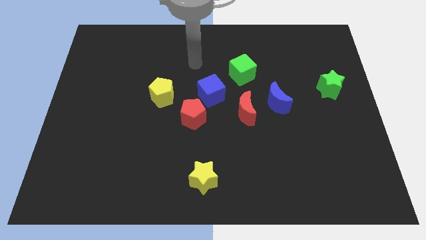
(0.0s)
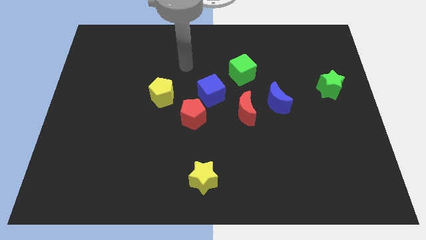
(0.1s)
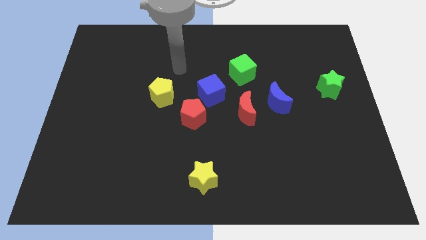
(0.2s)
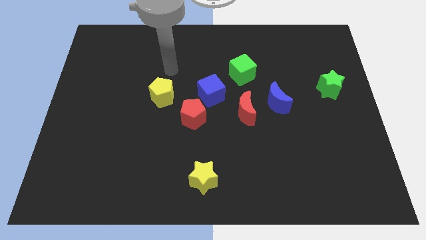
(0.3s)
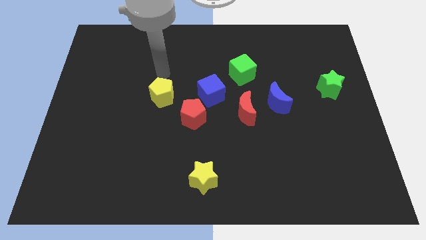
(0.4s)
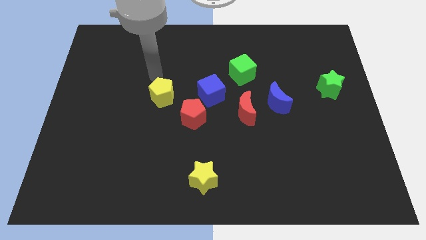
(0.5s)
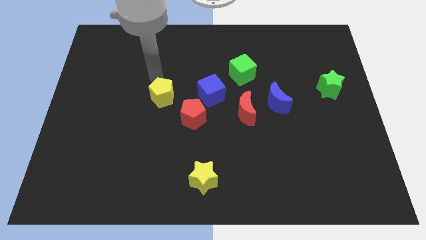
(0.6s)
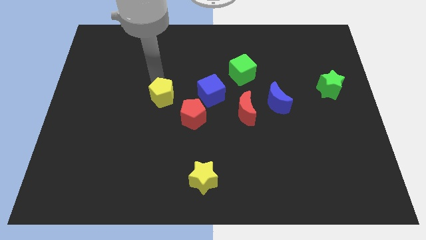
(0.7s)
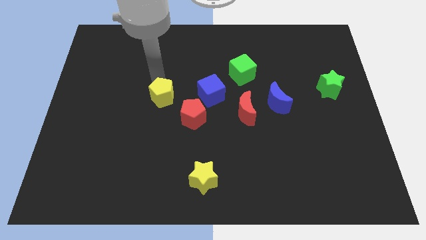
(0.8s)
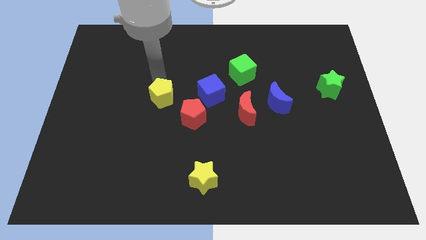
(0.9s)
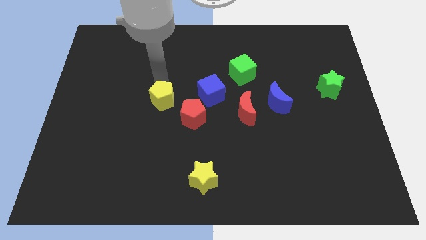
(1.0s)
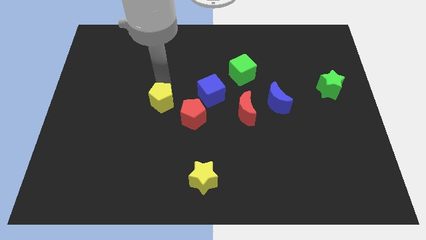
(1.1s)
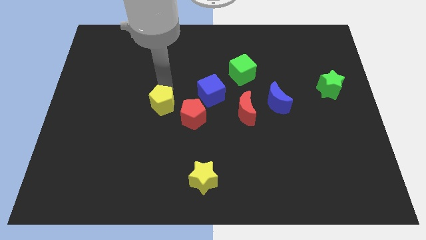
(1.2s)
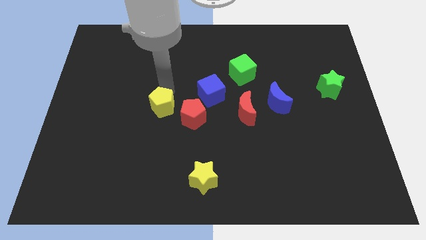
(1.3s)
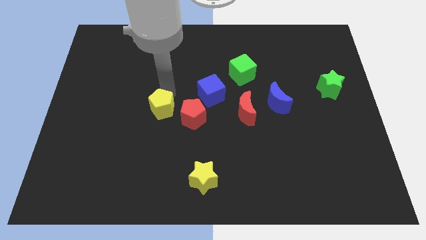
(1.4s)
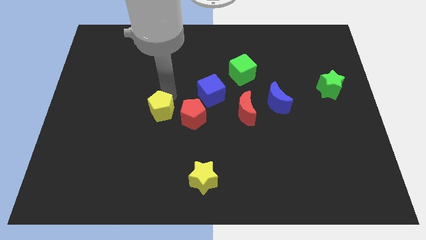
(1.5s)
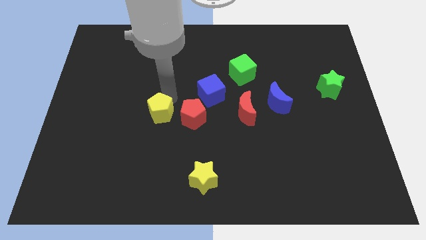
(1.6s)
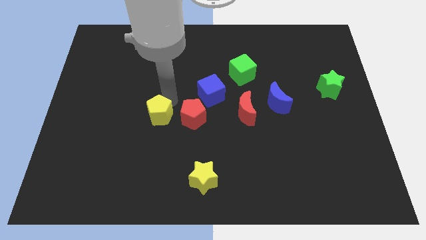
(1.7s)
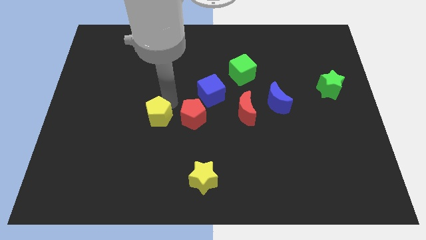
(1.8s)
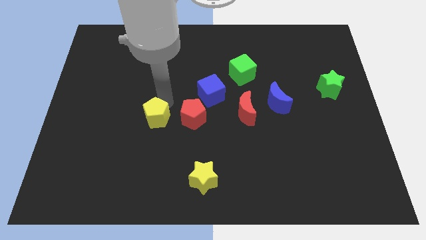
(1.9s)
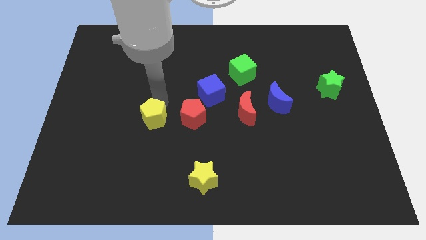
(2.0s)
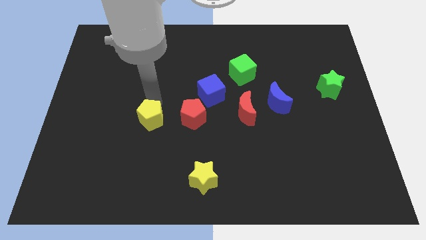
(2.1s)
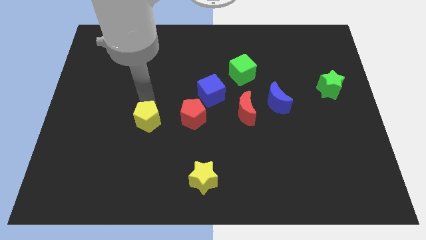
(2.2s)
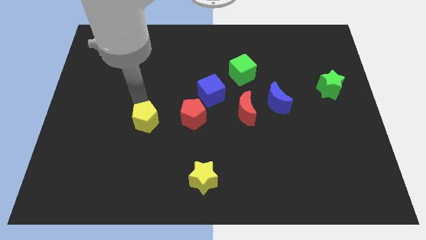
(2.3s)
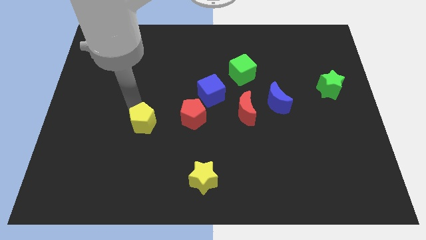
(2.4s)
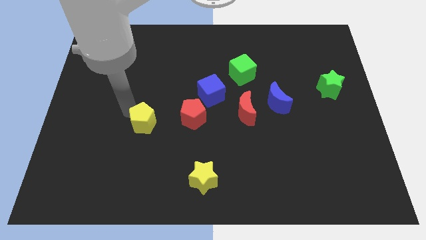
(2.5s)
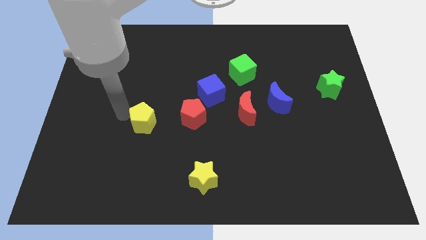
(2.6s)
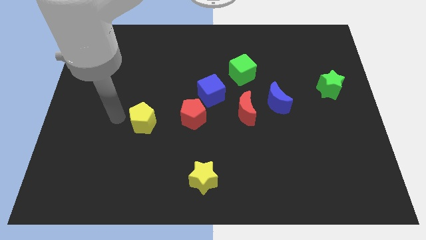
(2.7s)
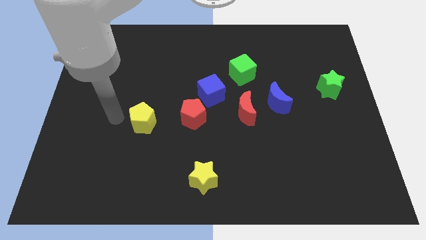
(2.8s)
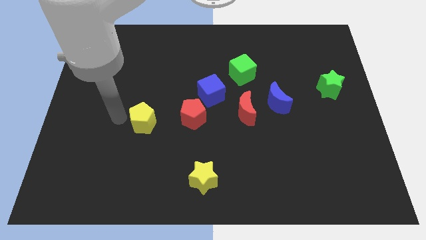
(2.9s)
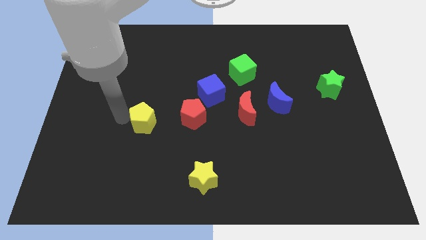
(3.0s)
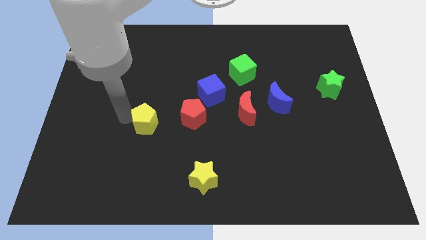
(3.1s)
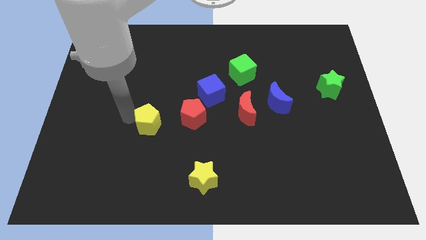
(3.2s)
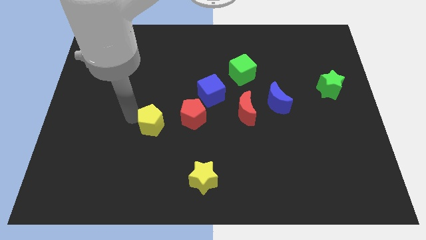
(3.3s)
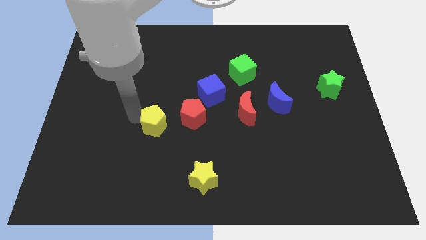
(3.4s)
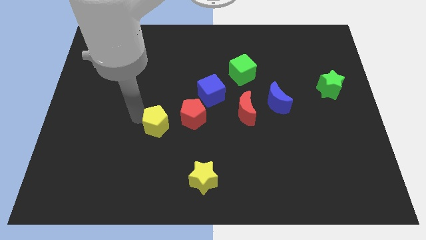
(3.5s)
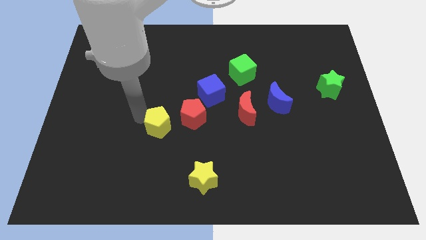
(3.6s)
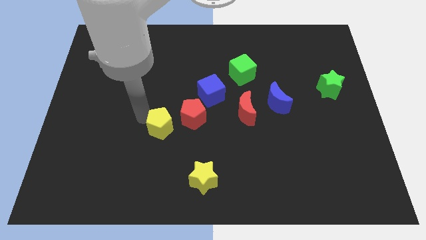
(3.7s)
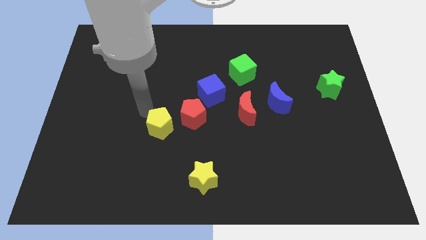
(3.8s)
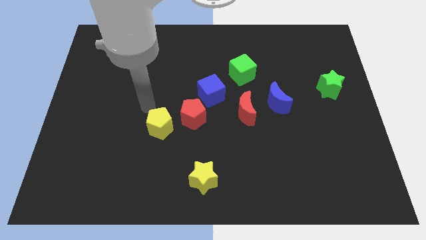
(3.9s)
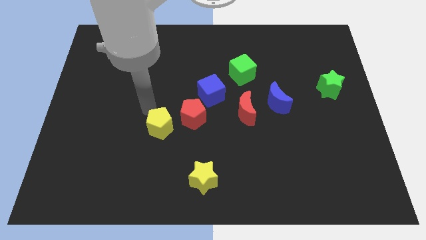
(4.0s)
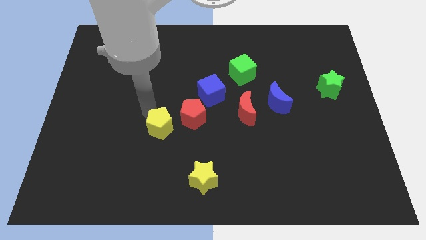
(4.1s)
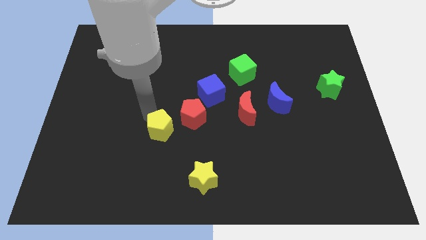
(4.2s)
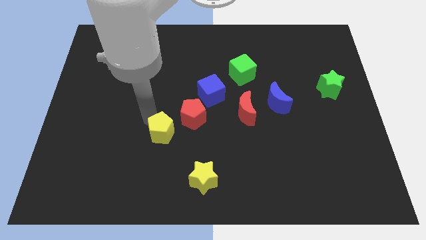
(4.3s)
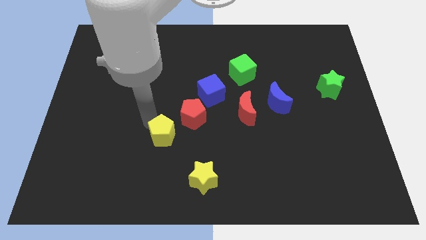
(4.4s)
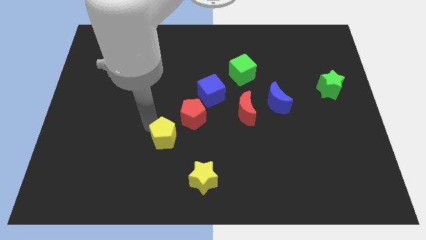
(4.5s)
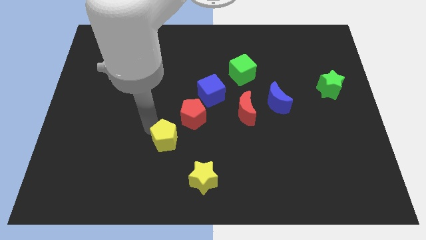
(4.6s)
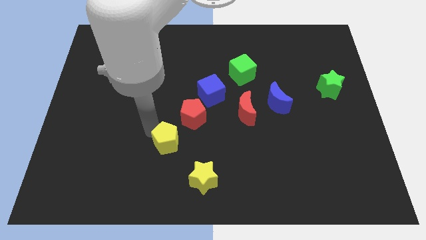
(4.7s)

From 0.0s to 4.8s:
push the yellow pentagon to the top left of the yellow star

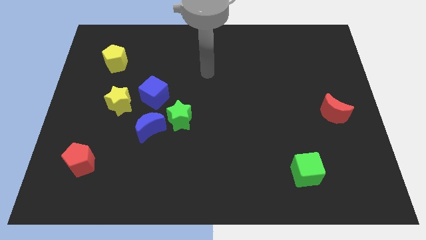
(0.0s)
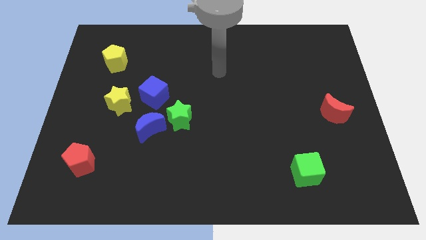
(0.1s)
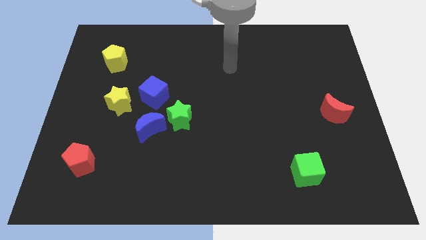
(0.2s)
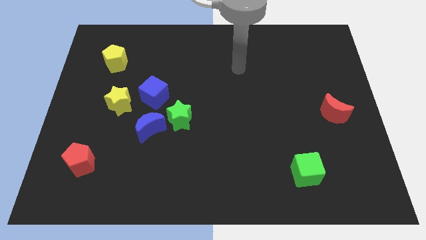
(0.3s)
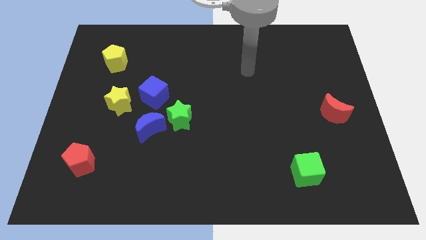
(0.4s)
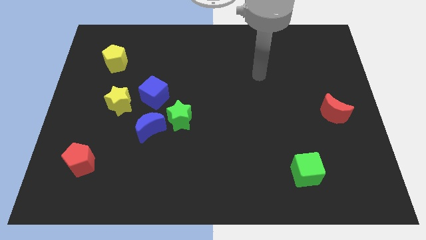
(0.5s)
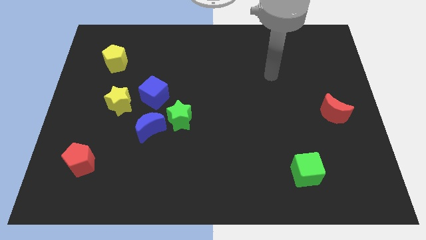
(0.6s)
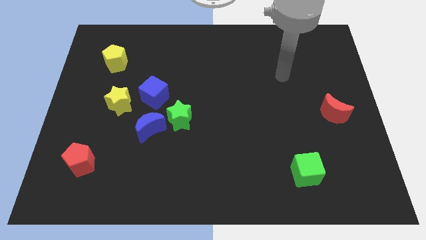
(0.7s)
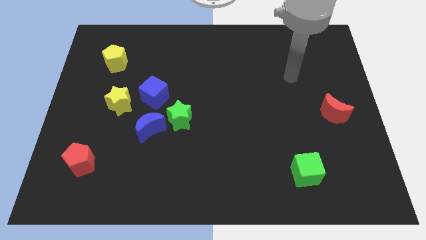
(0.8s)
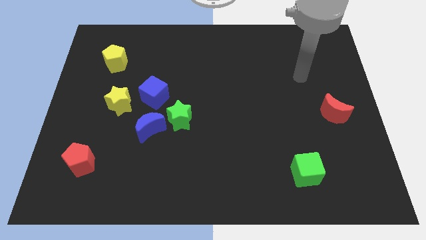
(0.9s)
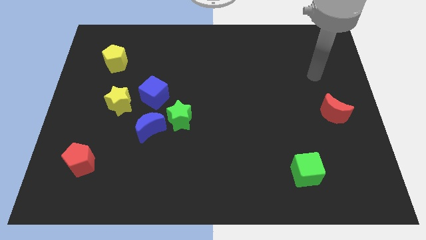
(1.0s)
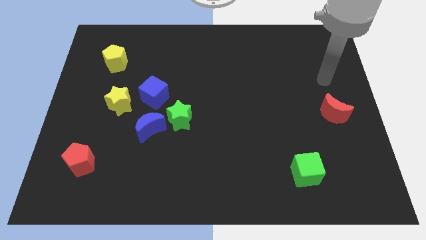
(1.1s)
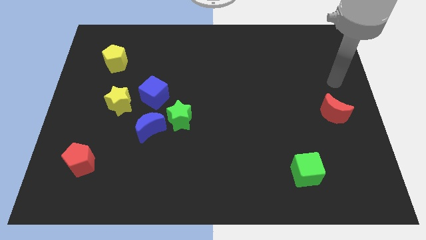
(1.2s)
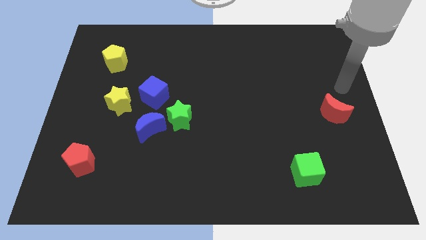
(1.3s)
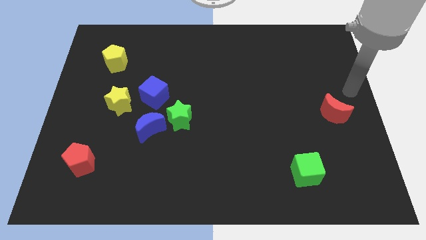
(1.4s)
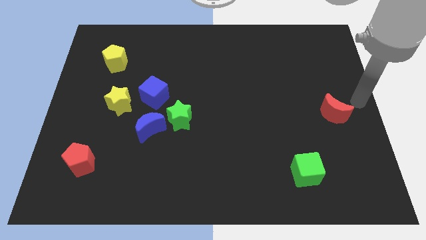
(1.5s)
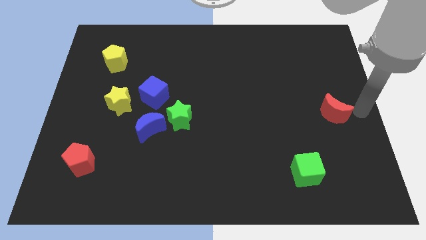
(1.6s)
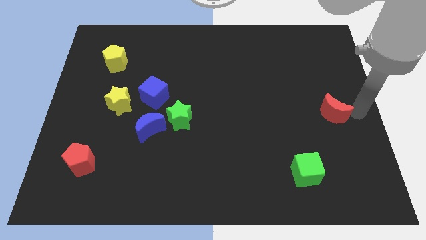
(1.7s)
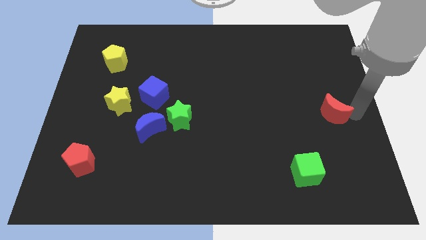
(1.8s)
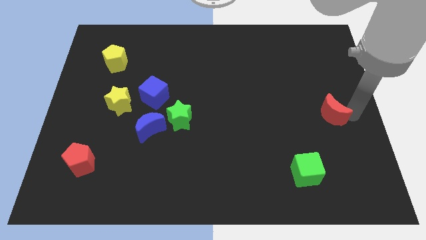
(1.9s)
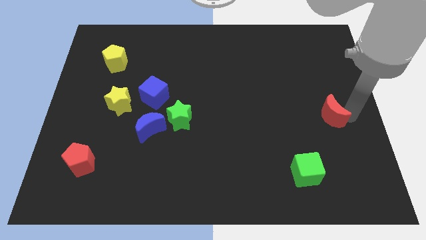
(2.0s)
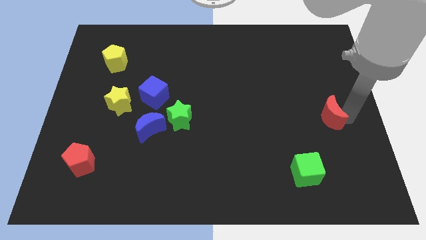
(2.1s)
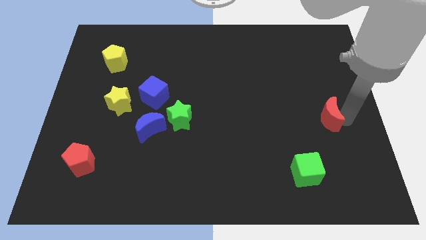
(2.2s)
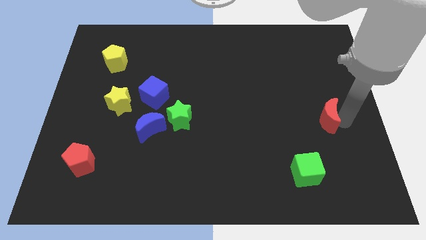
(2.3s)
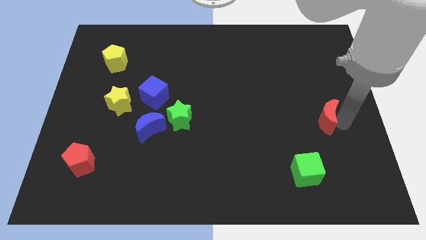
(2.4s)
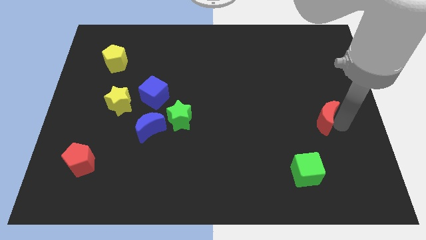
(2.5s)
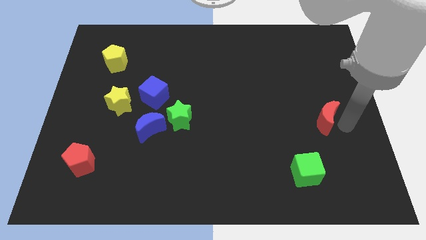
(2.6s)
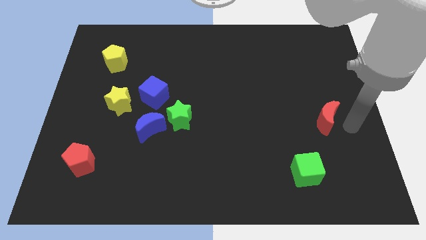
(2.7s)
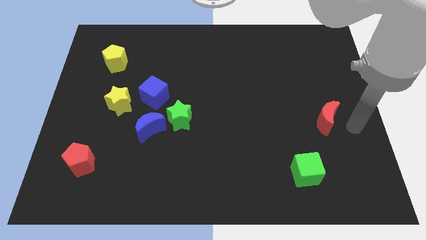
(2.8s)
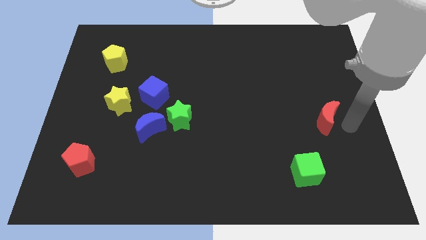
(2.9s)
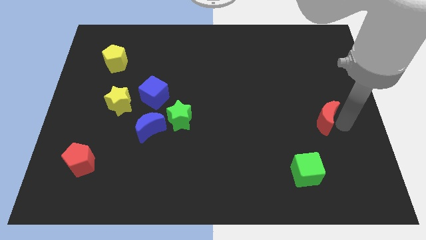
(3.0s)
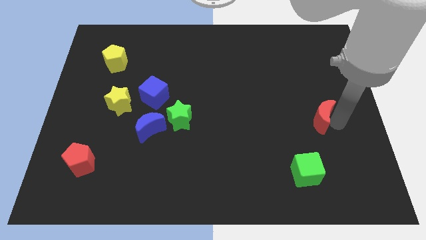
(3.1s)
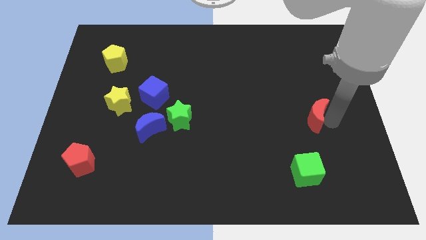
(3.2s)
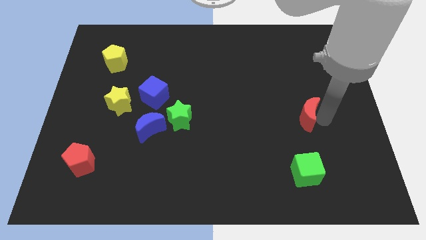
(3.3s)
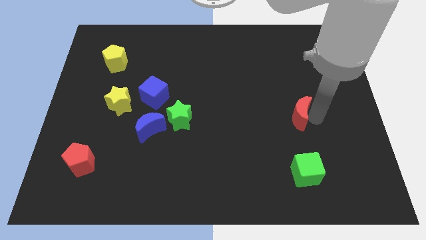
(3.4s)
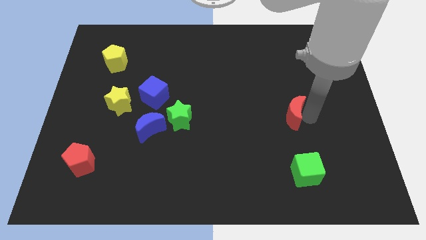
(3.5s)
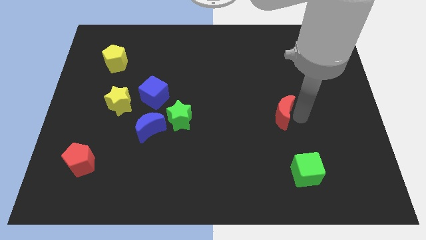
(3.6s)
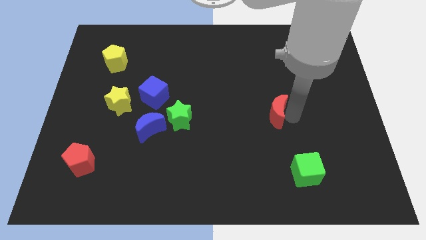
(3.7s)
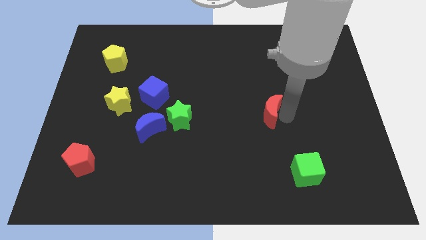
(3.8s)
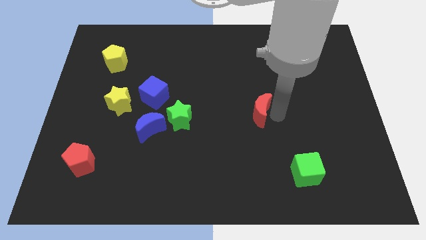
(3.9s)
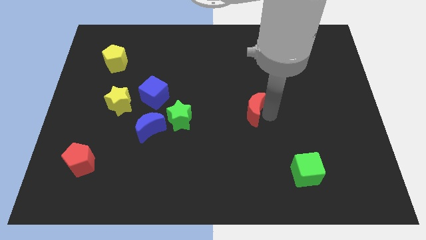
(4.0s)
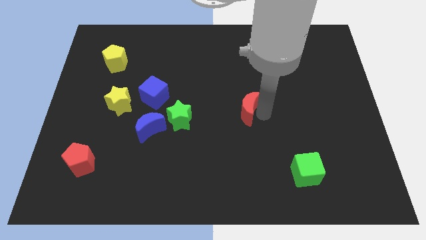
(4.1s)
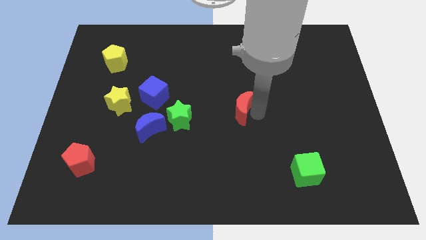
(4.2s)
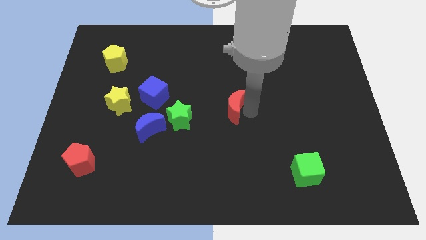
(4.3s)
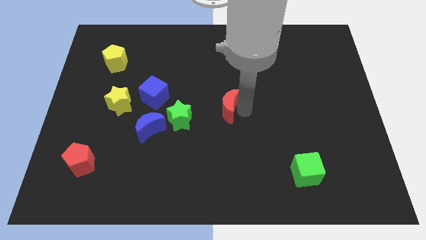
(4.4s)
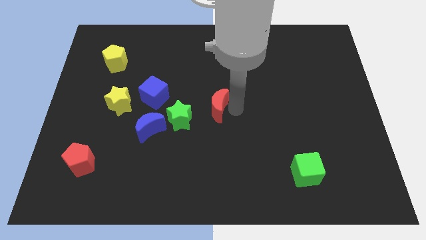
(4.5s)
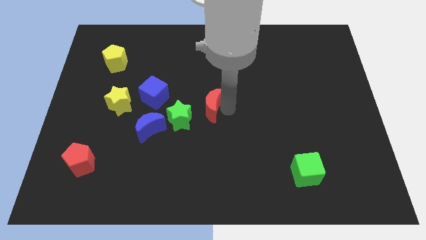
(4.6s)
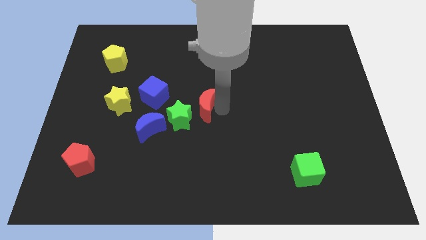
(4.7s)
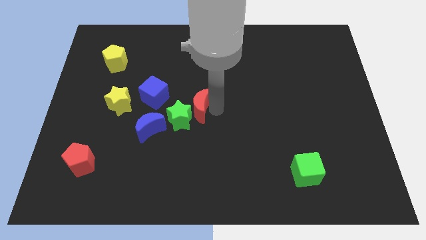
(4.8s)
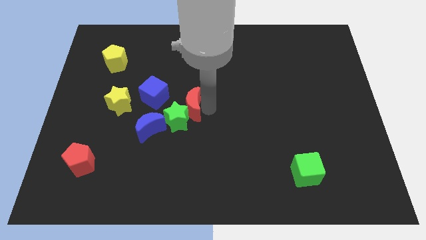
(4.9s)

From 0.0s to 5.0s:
slide the red moon diagonally up and to the right of the blue moon
